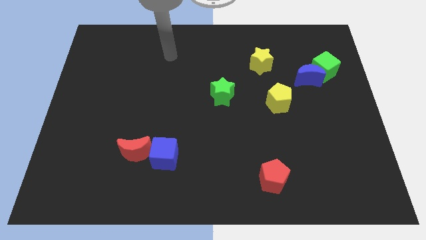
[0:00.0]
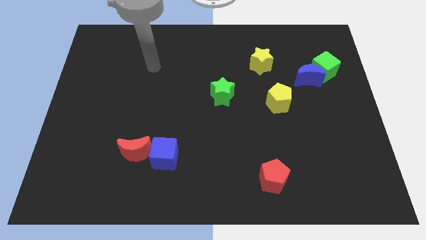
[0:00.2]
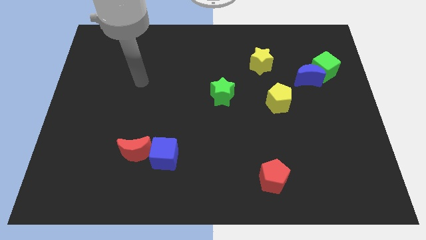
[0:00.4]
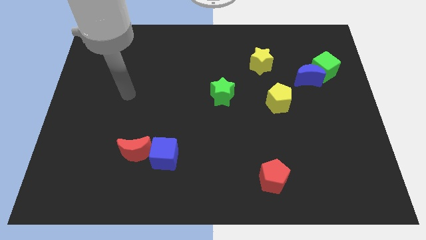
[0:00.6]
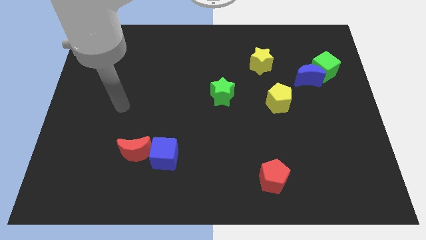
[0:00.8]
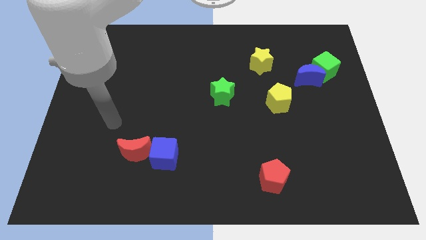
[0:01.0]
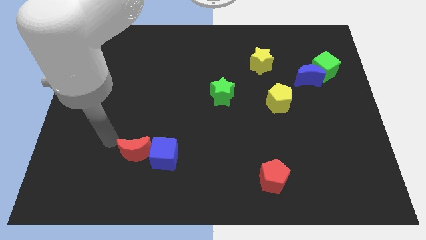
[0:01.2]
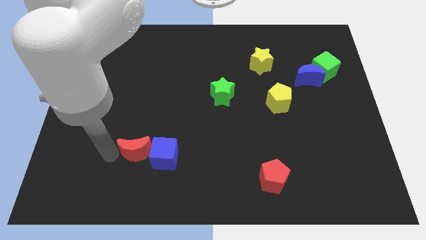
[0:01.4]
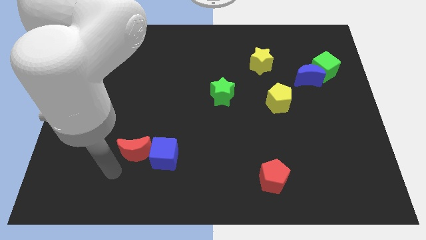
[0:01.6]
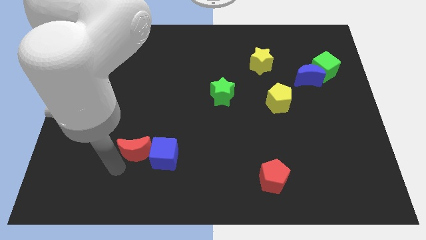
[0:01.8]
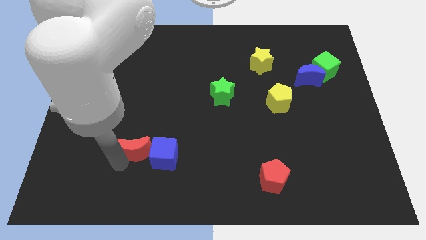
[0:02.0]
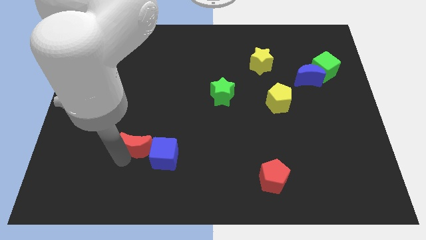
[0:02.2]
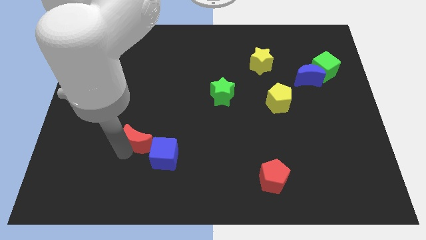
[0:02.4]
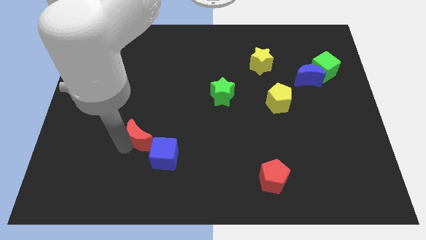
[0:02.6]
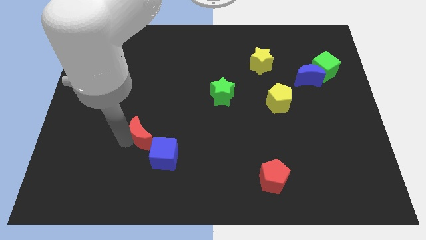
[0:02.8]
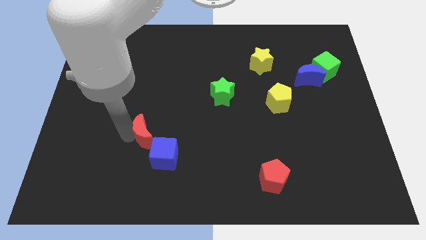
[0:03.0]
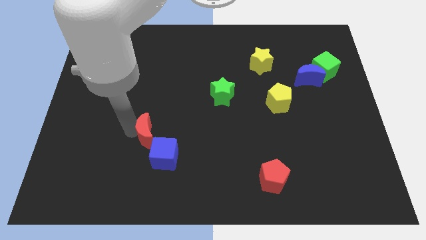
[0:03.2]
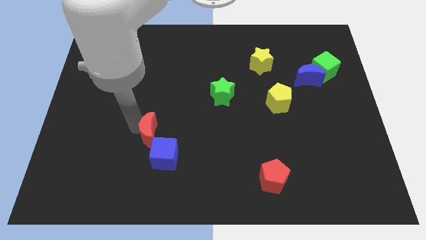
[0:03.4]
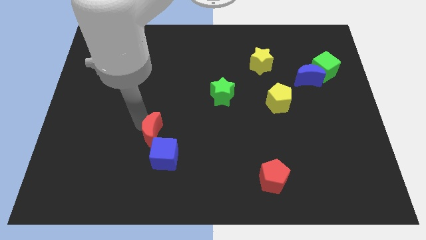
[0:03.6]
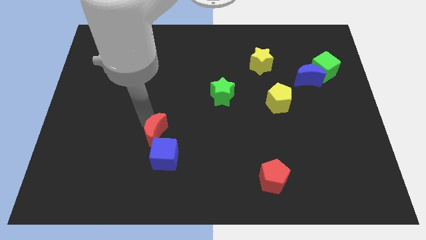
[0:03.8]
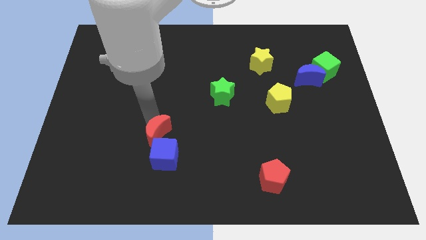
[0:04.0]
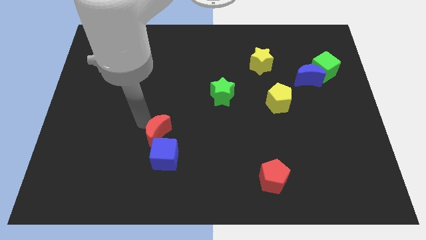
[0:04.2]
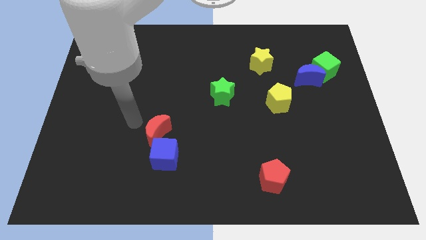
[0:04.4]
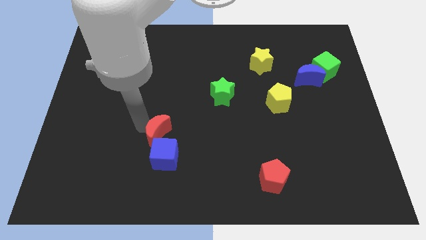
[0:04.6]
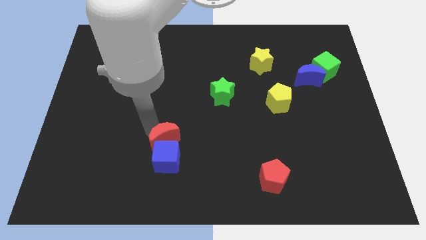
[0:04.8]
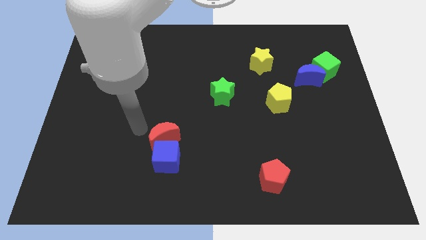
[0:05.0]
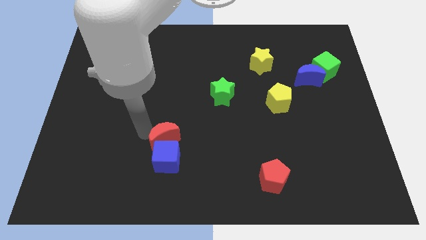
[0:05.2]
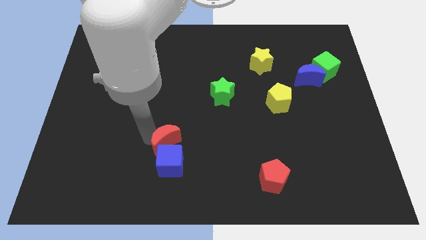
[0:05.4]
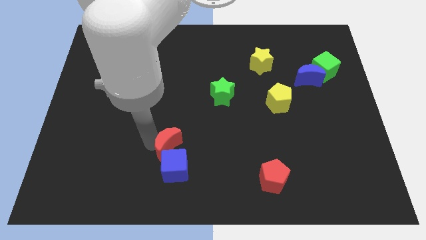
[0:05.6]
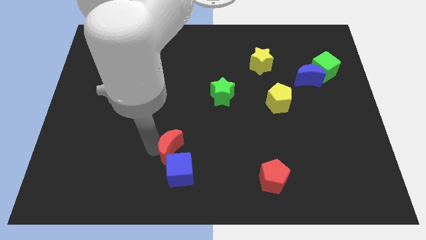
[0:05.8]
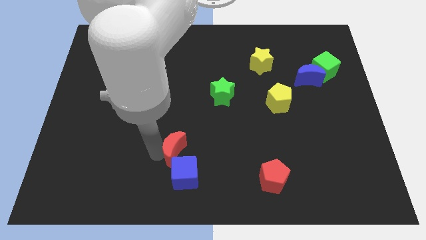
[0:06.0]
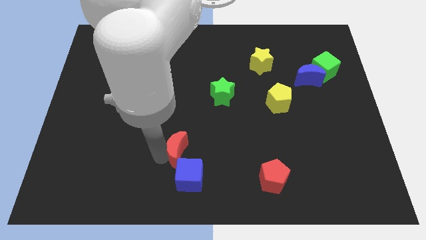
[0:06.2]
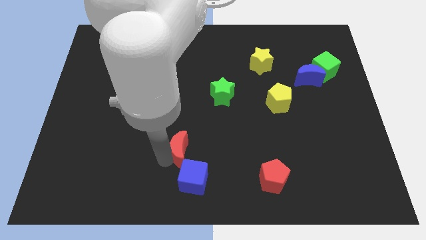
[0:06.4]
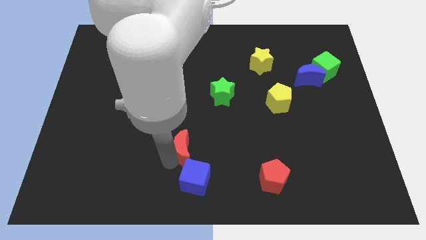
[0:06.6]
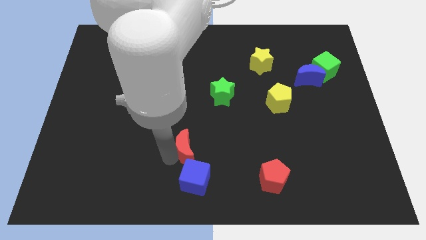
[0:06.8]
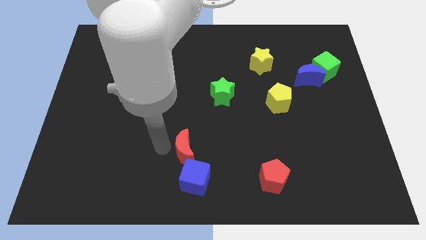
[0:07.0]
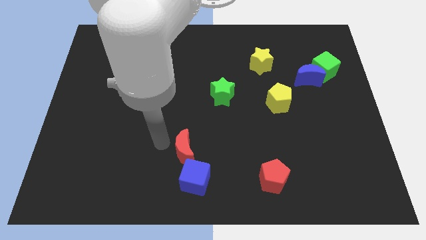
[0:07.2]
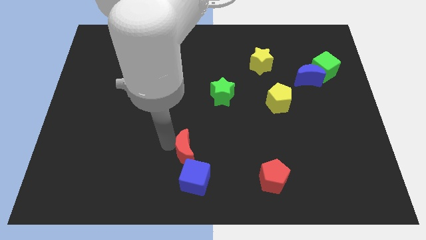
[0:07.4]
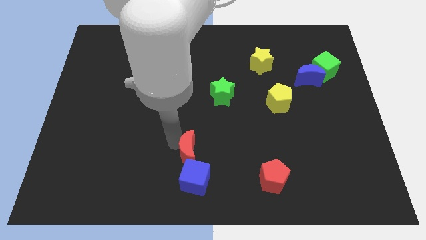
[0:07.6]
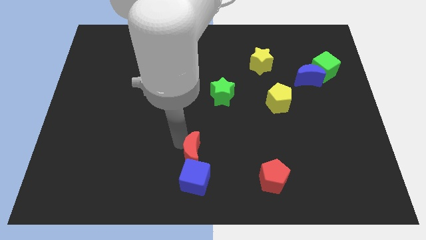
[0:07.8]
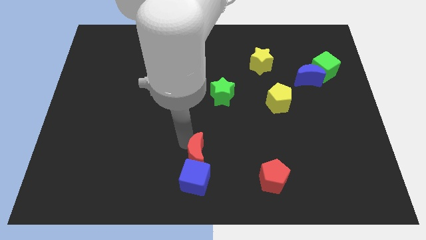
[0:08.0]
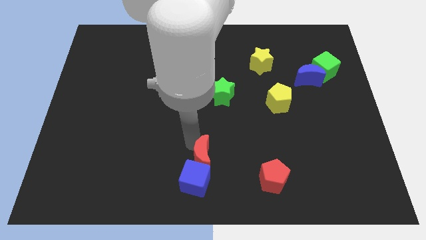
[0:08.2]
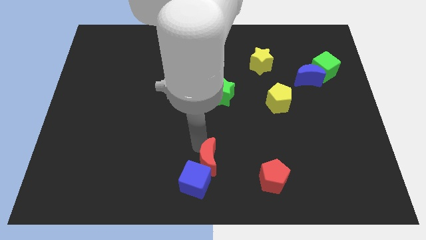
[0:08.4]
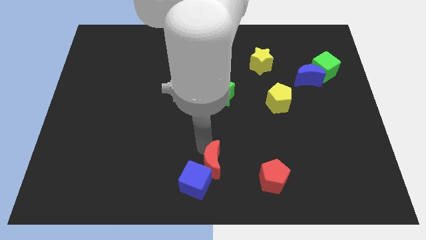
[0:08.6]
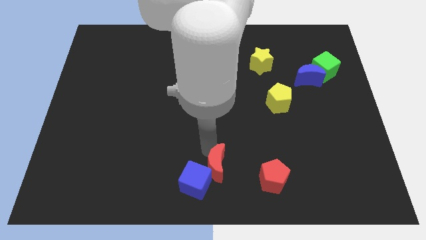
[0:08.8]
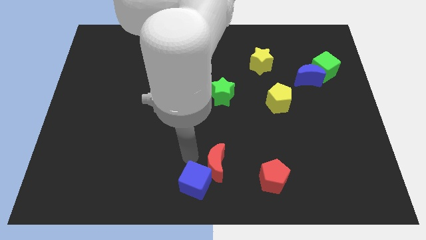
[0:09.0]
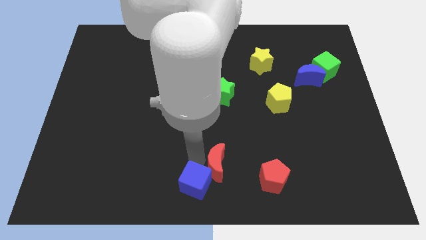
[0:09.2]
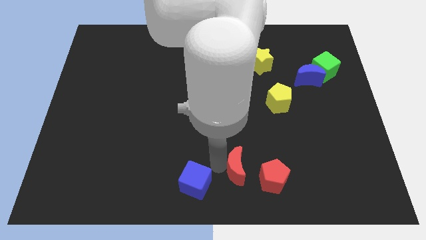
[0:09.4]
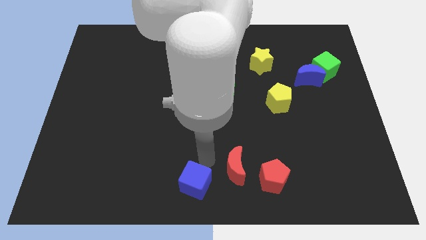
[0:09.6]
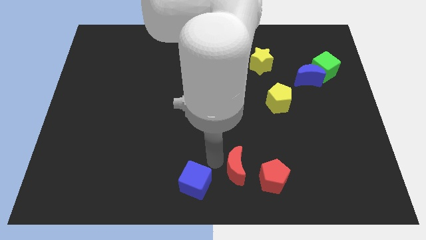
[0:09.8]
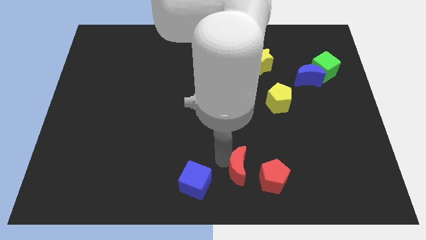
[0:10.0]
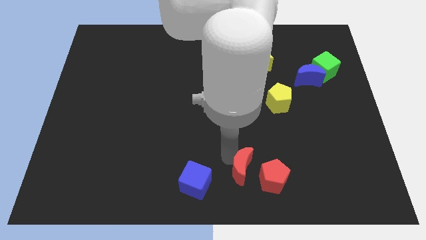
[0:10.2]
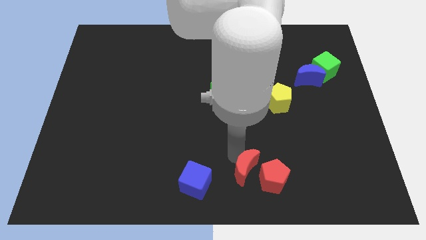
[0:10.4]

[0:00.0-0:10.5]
move the red moon next to the red pentagon

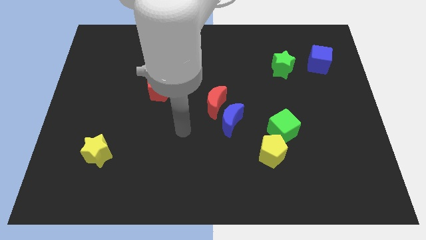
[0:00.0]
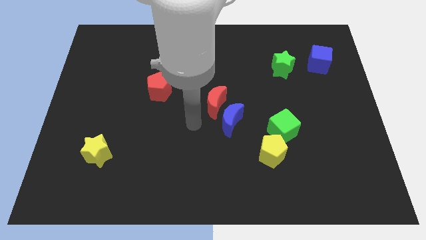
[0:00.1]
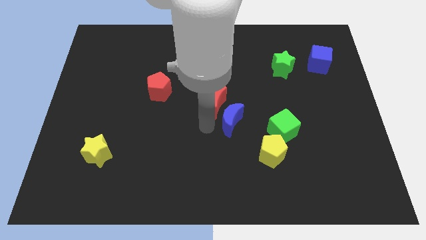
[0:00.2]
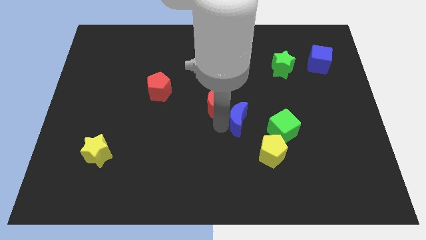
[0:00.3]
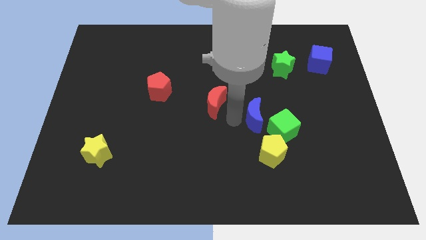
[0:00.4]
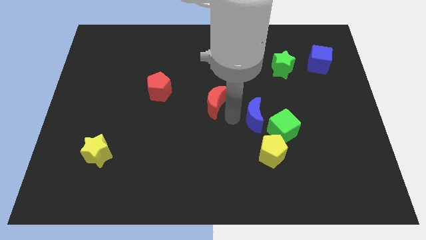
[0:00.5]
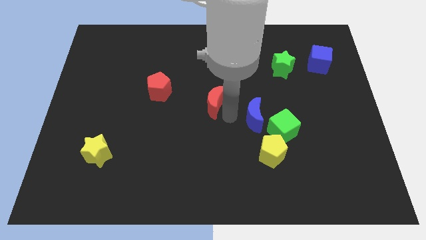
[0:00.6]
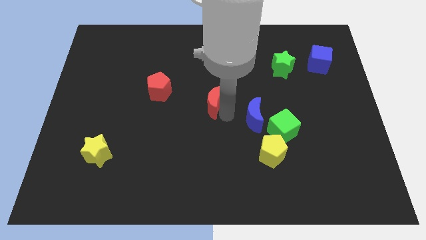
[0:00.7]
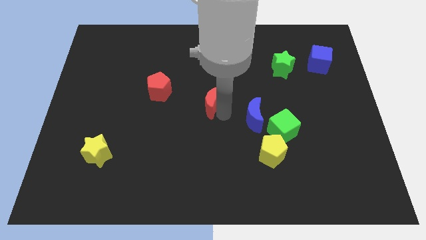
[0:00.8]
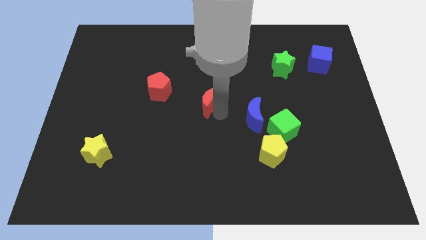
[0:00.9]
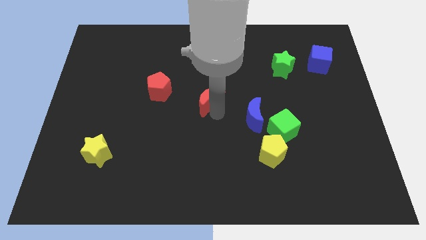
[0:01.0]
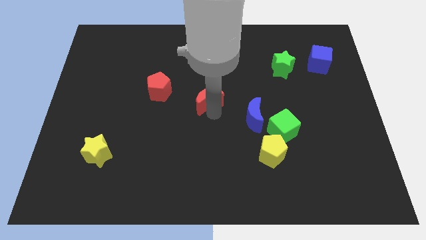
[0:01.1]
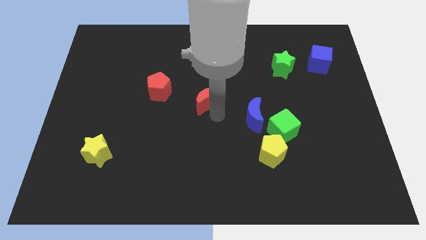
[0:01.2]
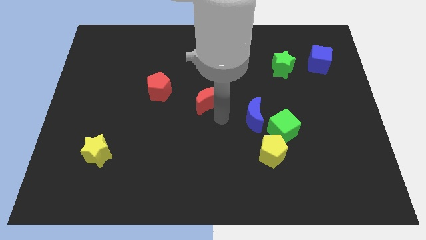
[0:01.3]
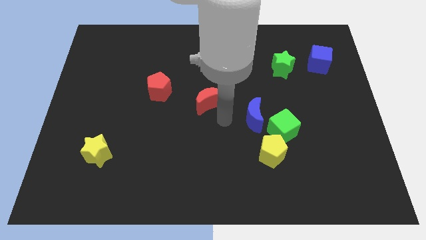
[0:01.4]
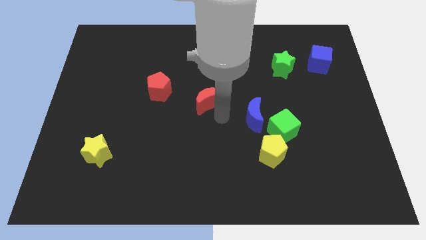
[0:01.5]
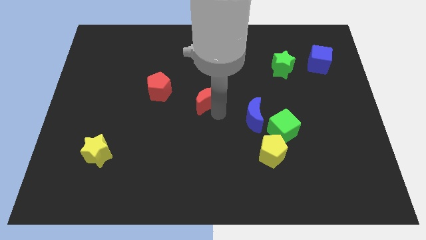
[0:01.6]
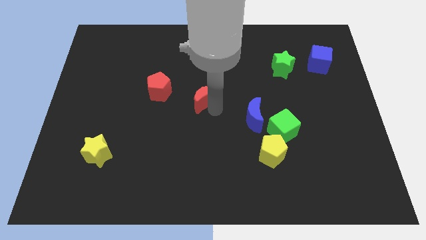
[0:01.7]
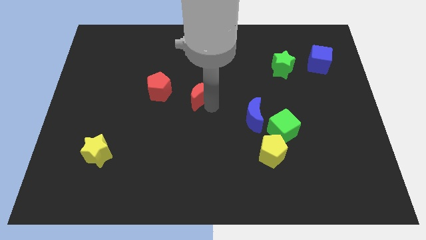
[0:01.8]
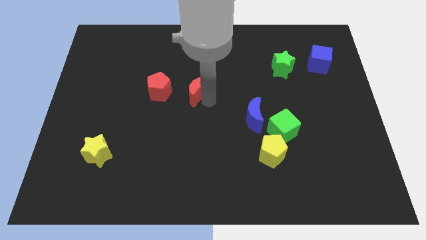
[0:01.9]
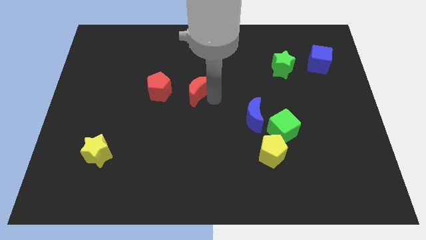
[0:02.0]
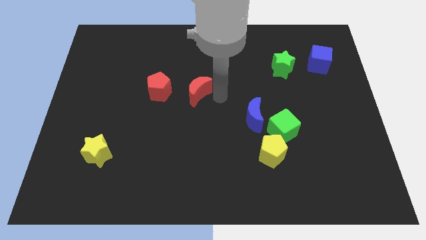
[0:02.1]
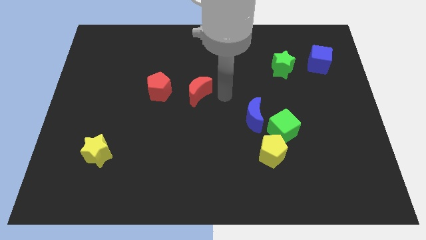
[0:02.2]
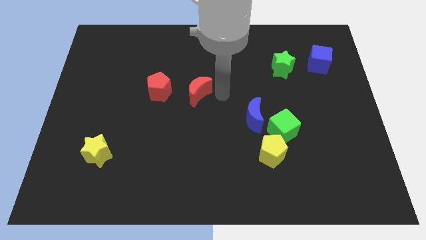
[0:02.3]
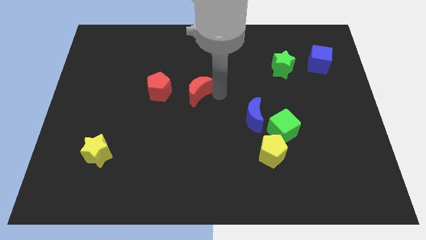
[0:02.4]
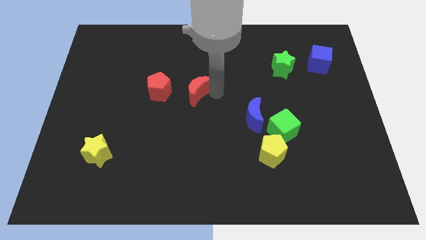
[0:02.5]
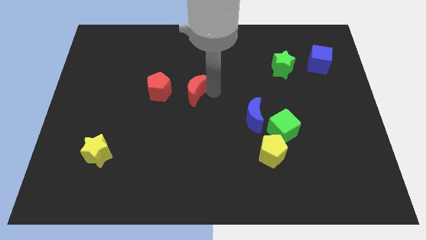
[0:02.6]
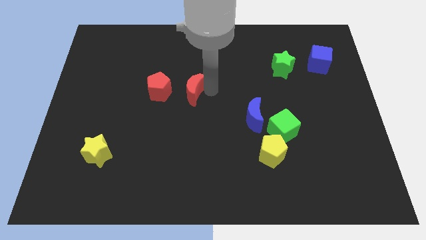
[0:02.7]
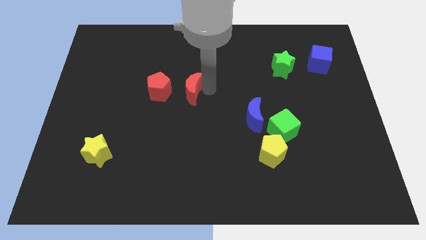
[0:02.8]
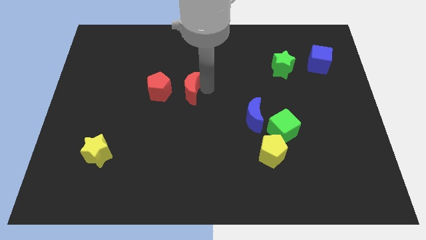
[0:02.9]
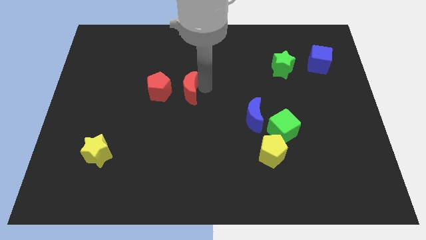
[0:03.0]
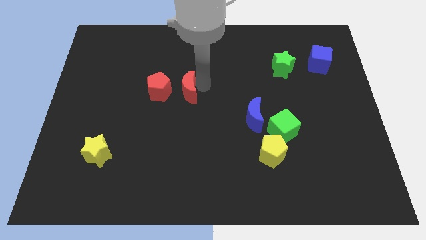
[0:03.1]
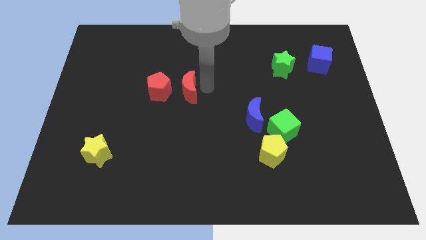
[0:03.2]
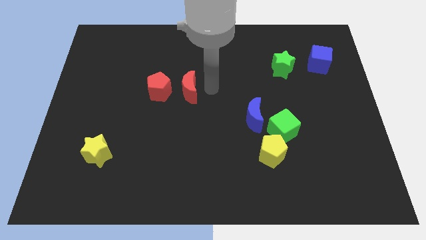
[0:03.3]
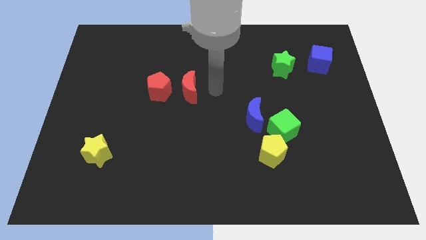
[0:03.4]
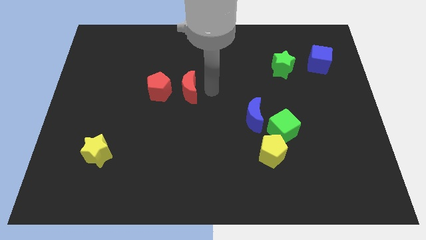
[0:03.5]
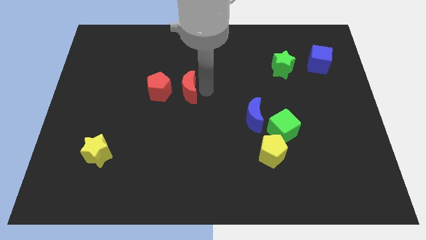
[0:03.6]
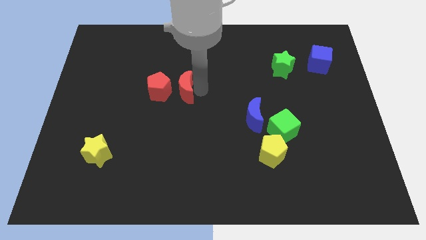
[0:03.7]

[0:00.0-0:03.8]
slide the red moon towards the red pentagon
